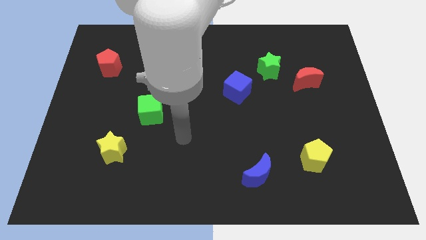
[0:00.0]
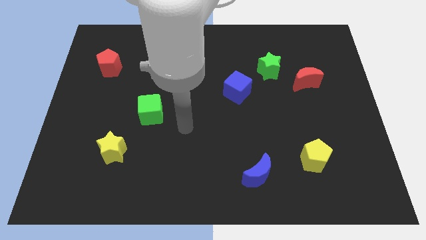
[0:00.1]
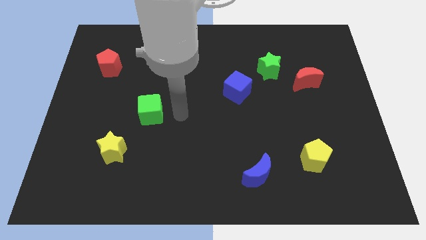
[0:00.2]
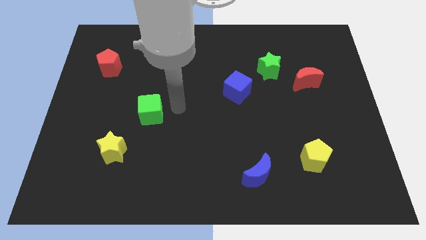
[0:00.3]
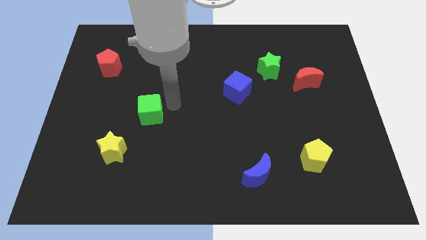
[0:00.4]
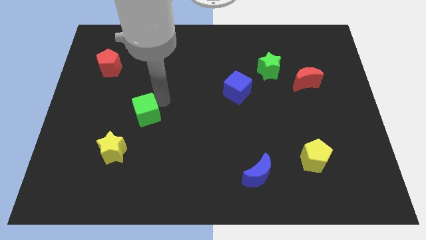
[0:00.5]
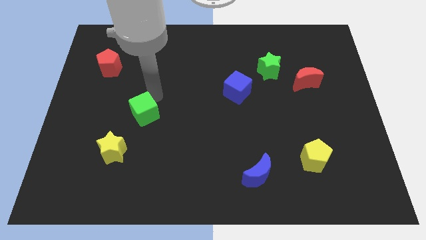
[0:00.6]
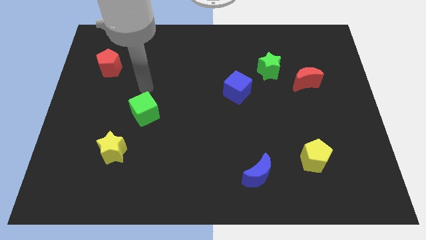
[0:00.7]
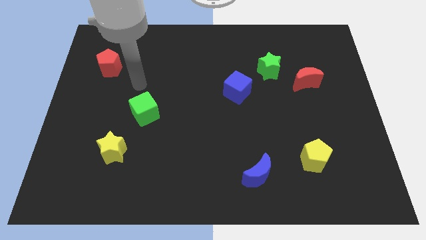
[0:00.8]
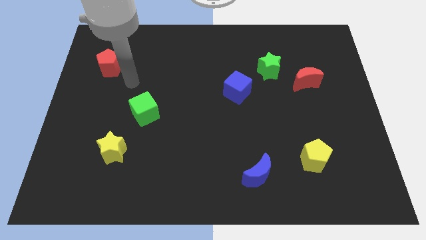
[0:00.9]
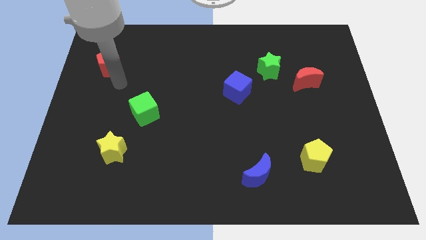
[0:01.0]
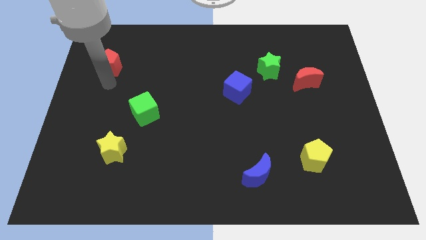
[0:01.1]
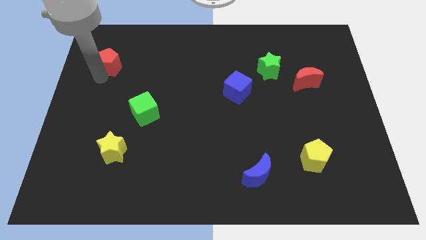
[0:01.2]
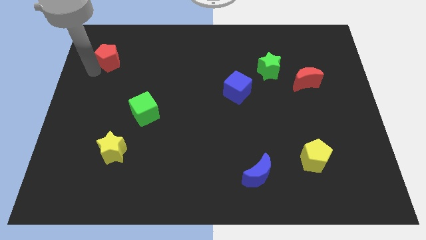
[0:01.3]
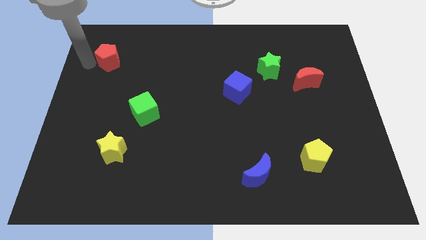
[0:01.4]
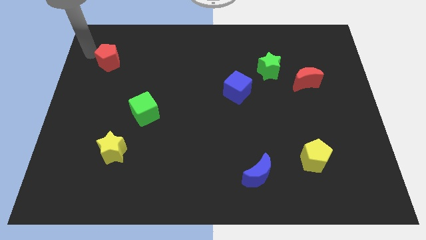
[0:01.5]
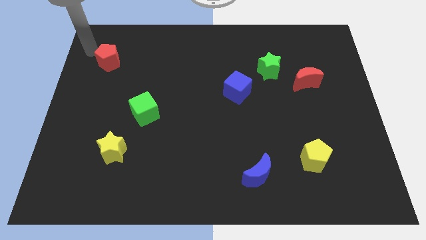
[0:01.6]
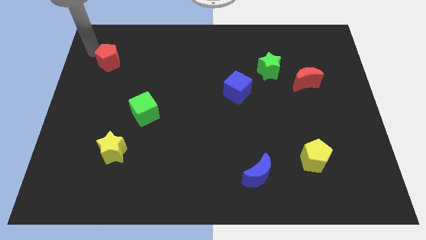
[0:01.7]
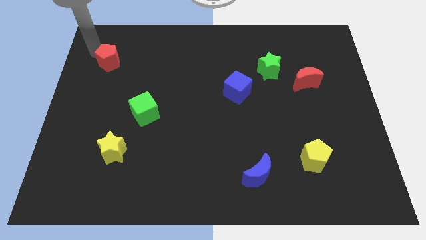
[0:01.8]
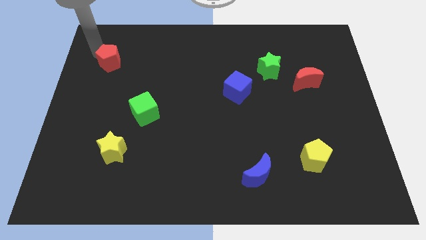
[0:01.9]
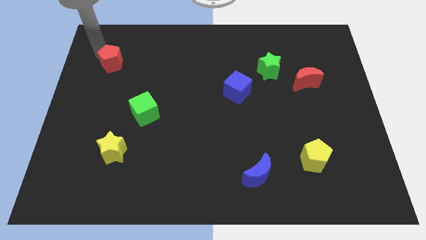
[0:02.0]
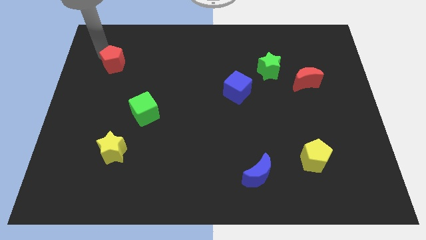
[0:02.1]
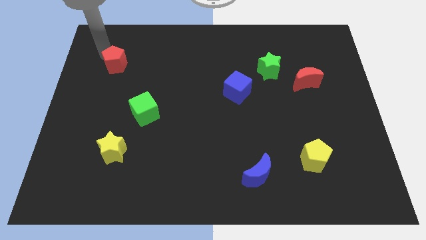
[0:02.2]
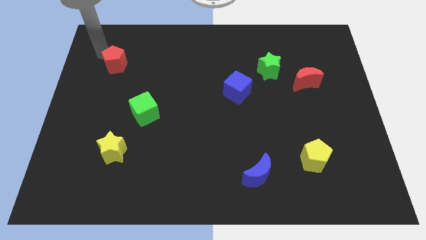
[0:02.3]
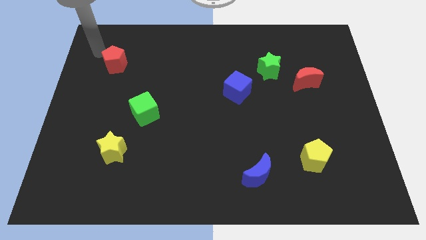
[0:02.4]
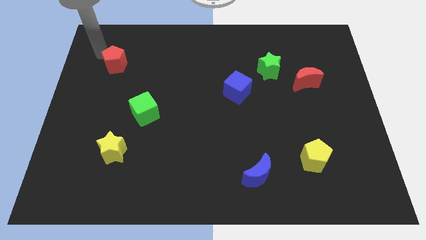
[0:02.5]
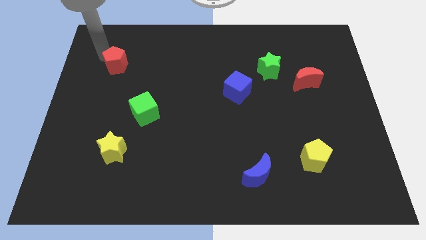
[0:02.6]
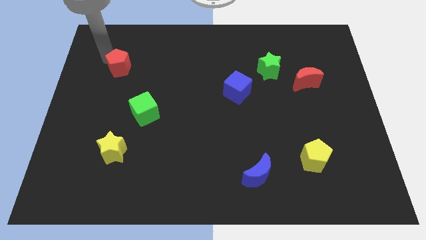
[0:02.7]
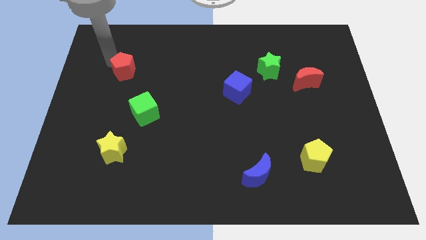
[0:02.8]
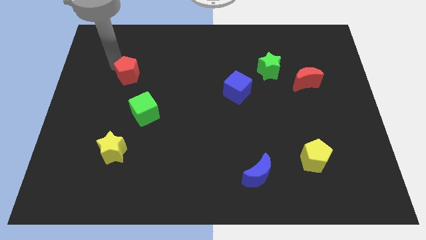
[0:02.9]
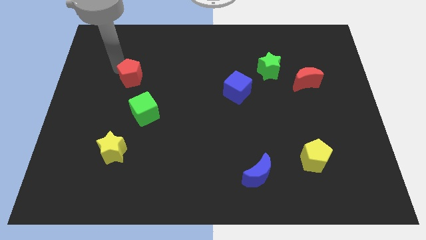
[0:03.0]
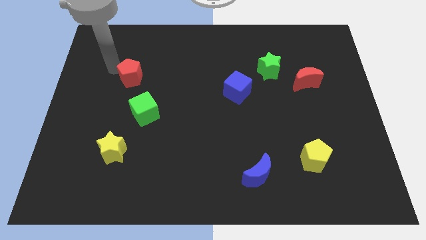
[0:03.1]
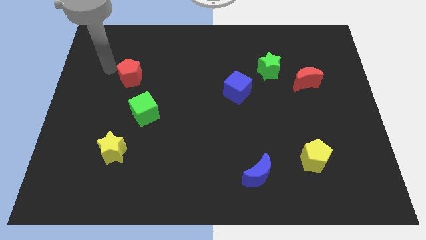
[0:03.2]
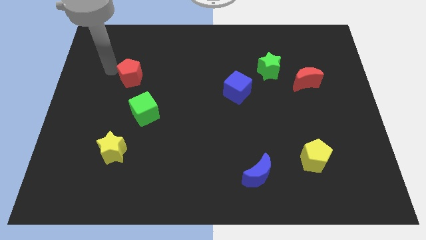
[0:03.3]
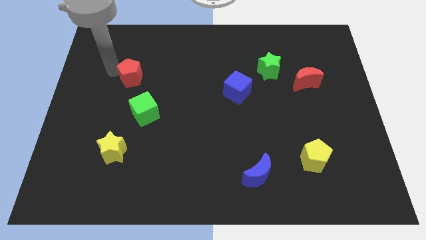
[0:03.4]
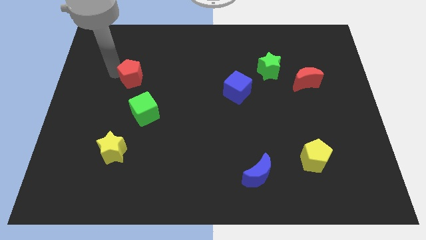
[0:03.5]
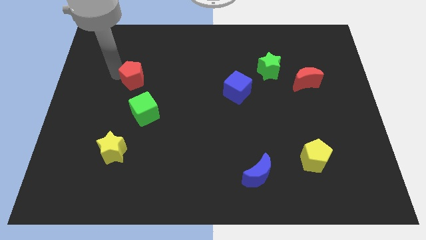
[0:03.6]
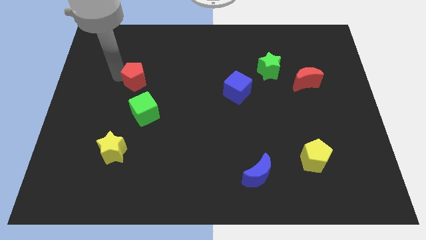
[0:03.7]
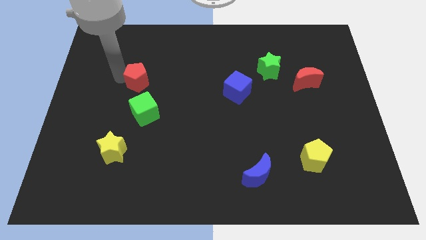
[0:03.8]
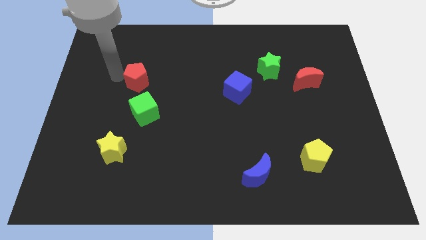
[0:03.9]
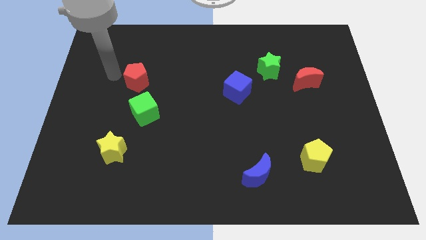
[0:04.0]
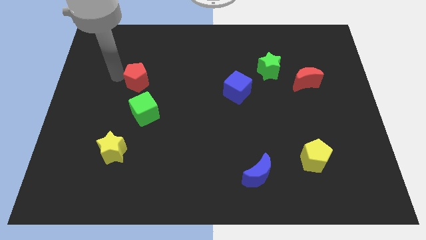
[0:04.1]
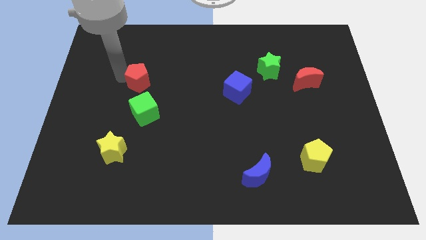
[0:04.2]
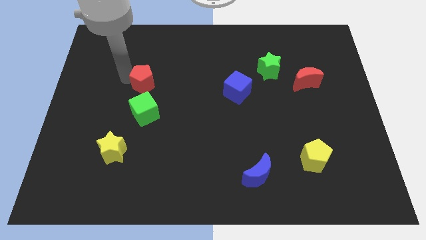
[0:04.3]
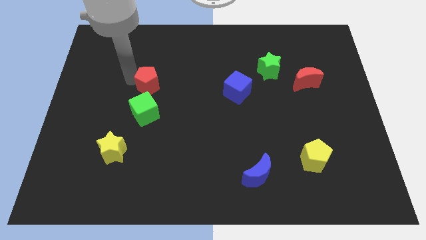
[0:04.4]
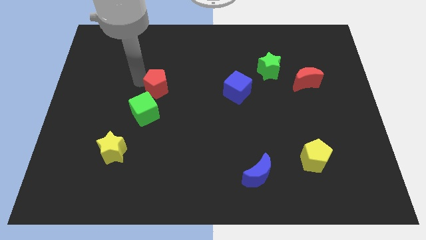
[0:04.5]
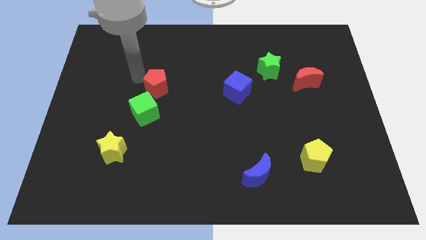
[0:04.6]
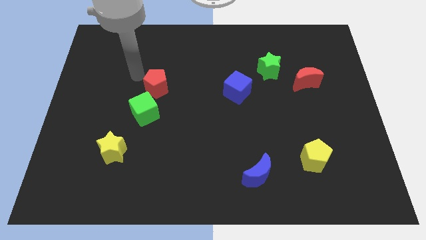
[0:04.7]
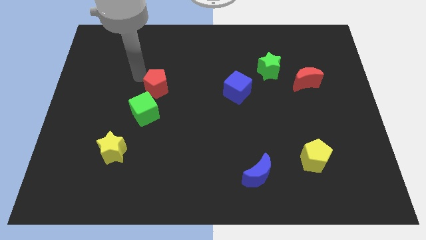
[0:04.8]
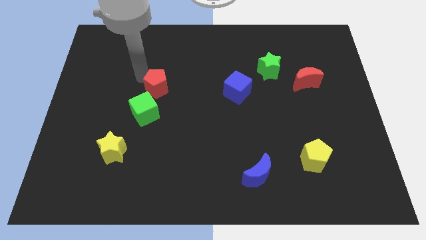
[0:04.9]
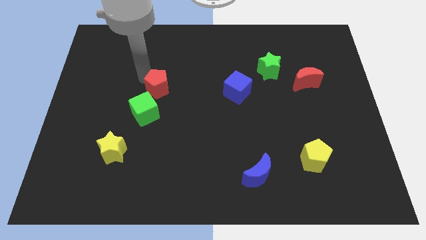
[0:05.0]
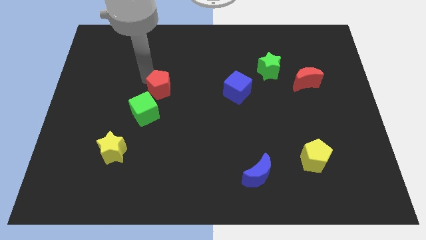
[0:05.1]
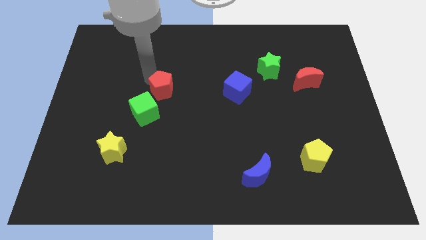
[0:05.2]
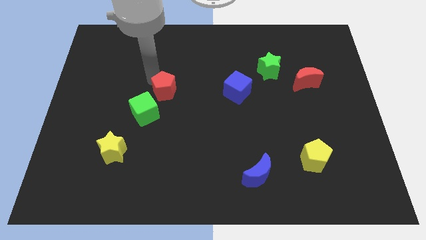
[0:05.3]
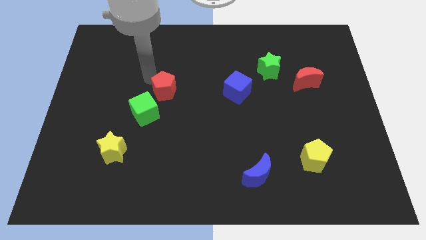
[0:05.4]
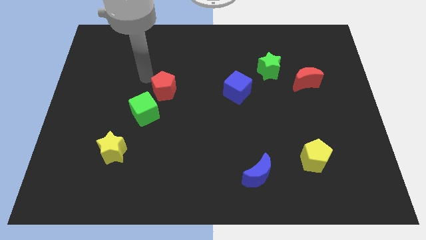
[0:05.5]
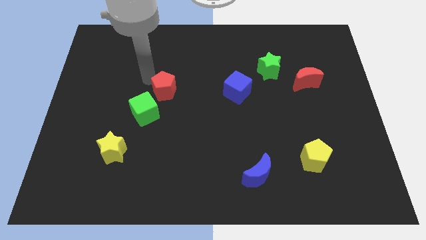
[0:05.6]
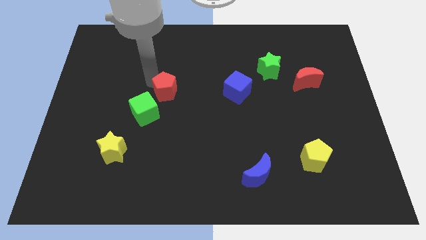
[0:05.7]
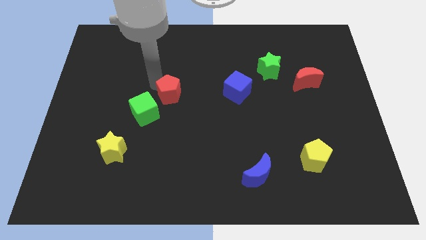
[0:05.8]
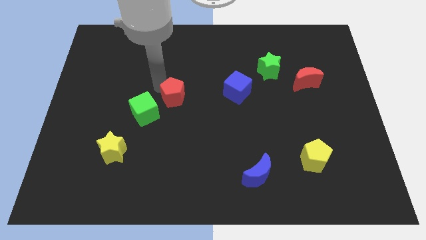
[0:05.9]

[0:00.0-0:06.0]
put the red pentagon to the right side of the green cube

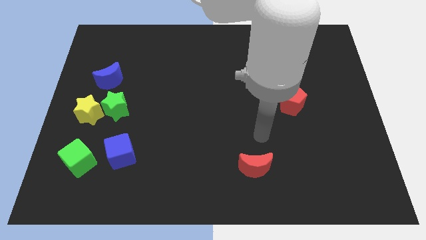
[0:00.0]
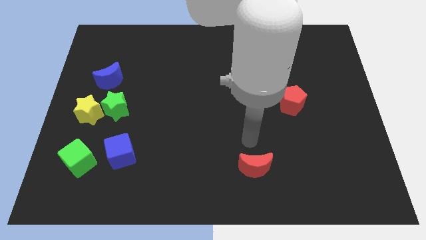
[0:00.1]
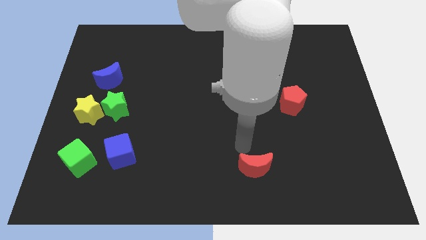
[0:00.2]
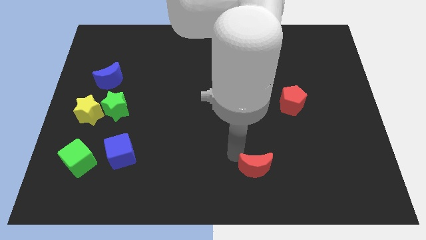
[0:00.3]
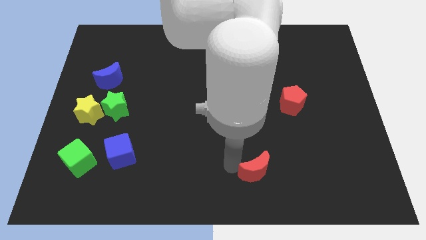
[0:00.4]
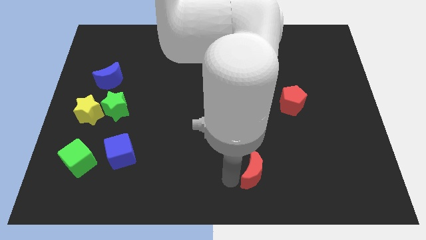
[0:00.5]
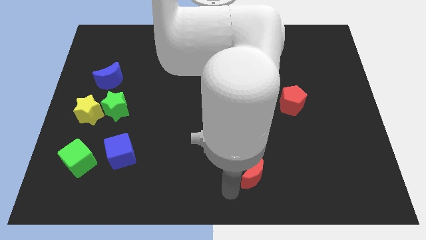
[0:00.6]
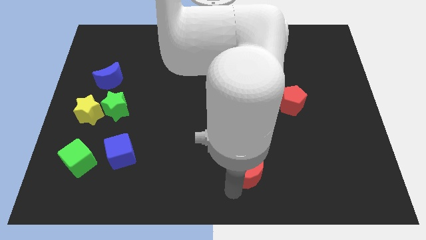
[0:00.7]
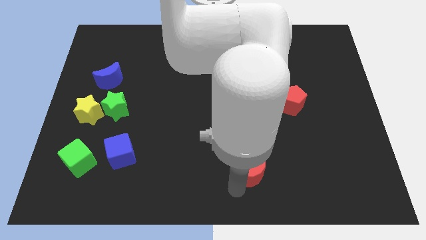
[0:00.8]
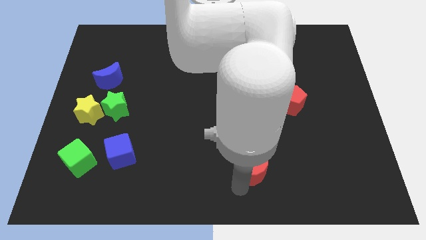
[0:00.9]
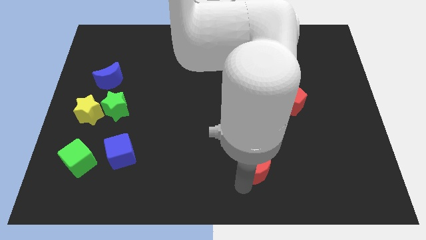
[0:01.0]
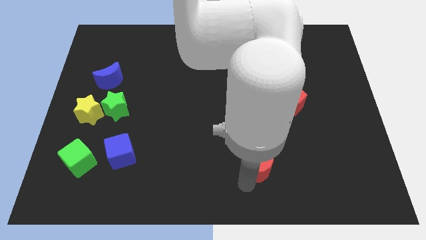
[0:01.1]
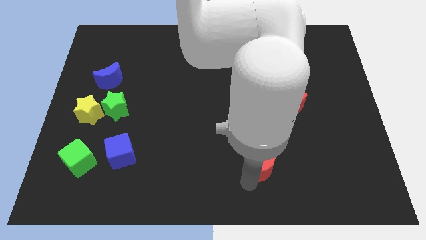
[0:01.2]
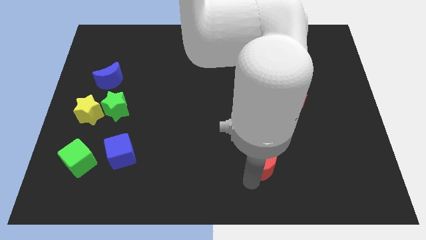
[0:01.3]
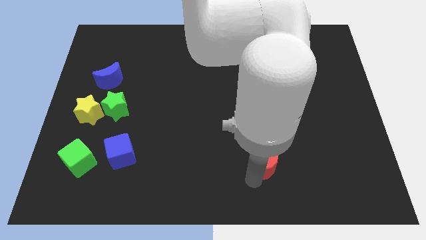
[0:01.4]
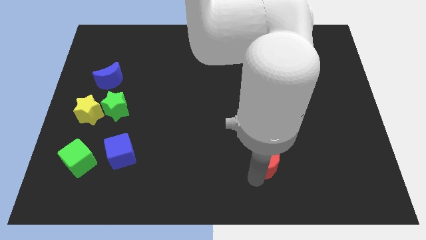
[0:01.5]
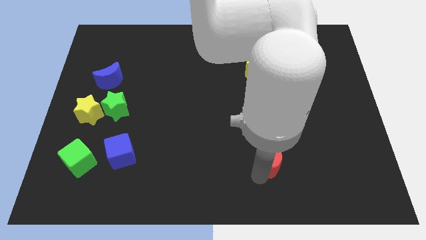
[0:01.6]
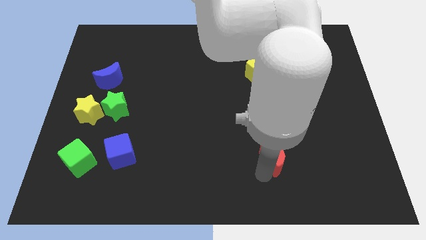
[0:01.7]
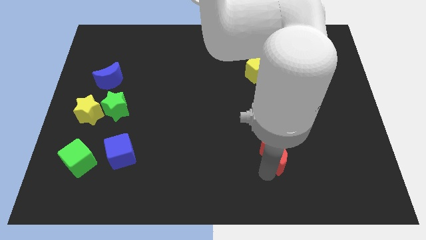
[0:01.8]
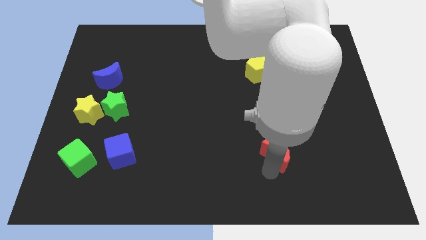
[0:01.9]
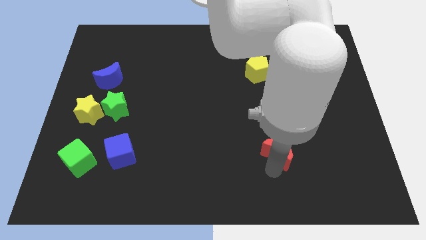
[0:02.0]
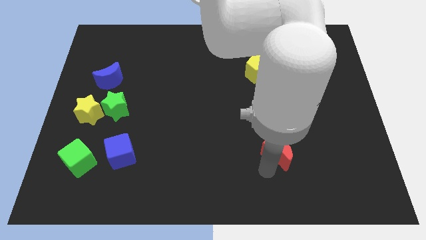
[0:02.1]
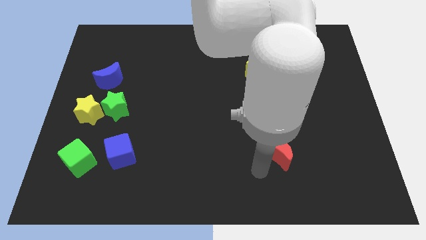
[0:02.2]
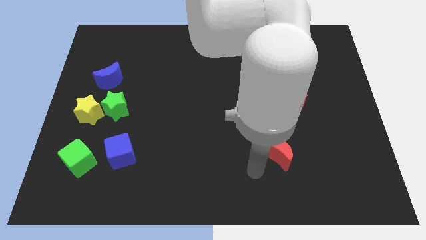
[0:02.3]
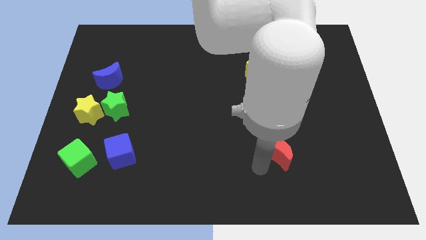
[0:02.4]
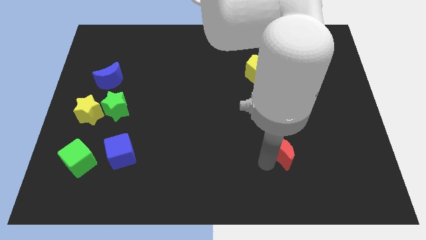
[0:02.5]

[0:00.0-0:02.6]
slide the red moon below the red pentagon
